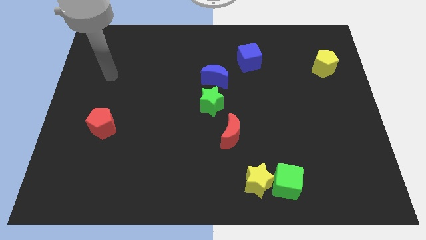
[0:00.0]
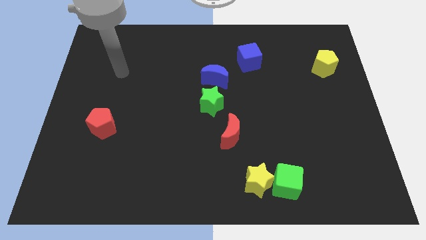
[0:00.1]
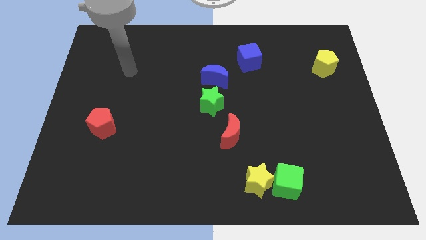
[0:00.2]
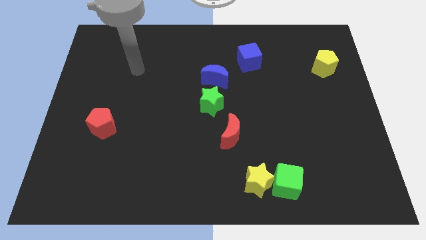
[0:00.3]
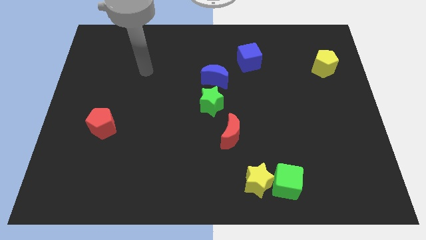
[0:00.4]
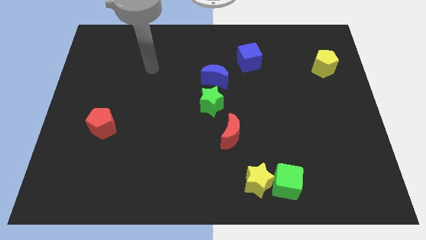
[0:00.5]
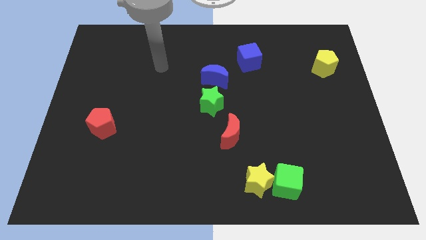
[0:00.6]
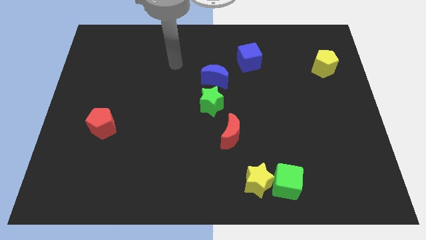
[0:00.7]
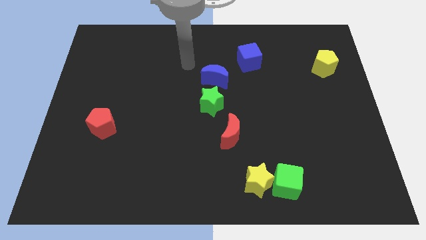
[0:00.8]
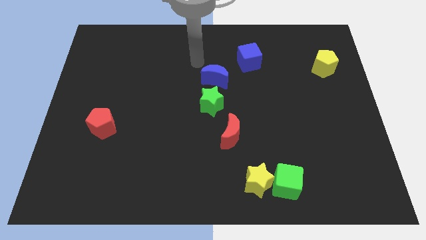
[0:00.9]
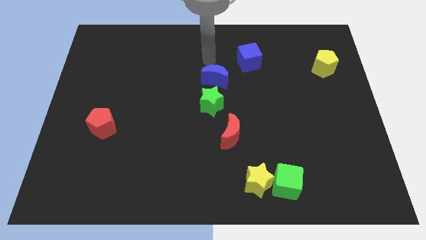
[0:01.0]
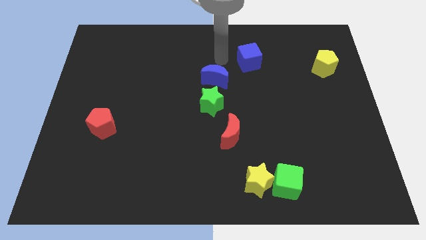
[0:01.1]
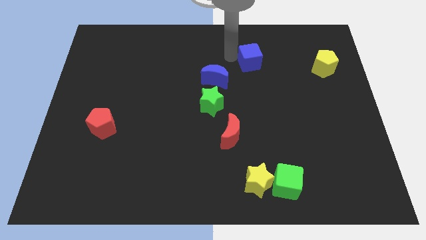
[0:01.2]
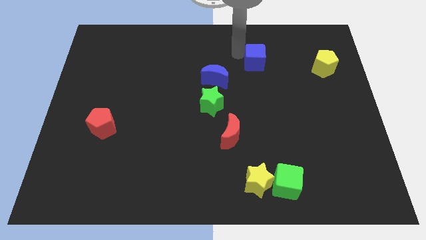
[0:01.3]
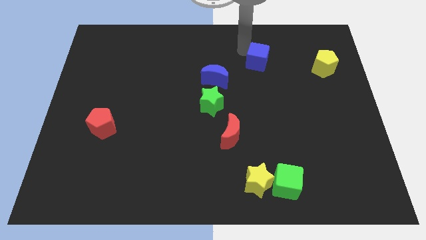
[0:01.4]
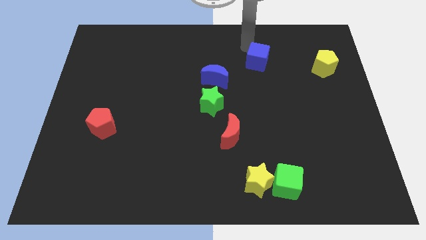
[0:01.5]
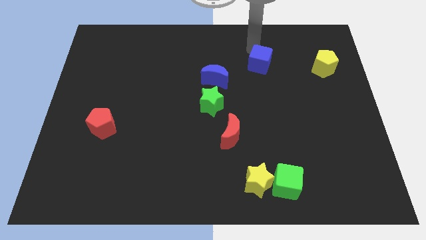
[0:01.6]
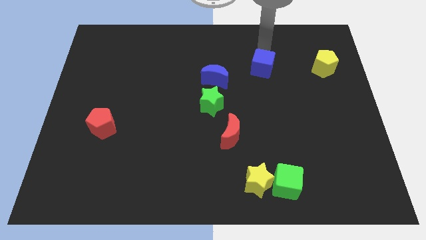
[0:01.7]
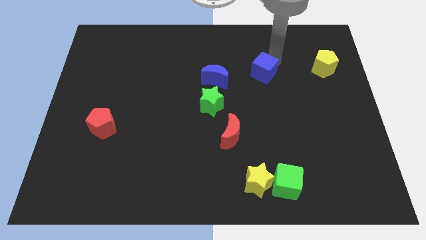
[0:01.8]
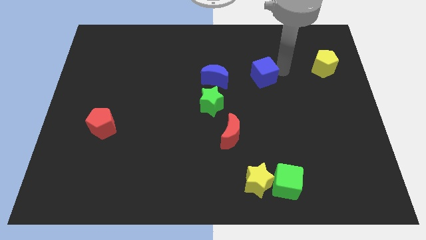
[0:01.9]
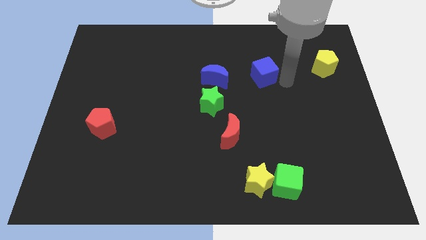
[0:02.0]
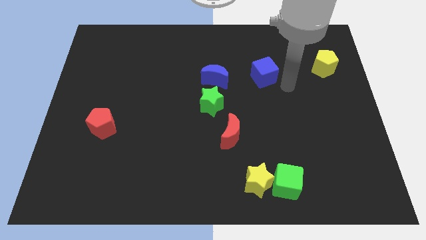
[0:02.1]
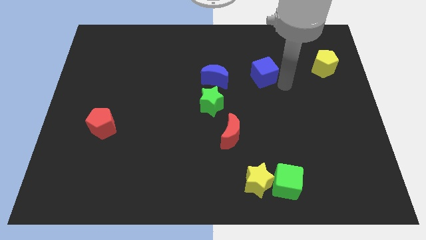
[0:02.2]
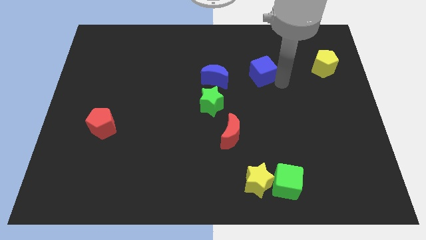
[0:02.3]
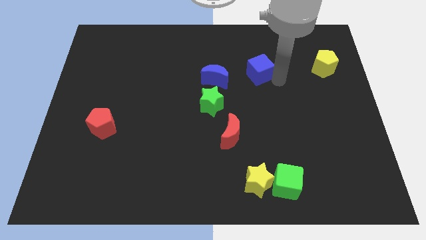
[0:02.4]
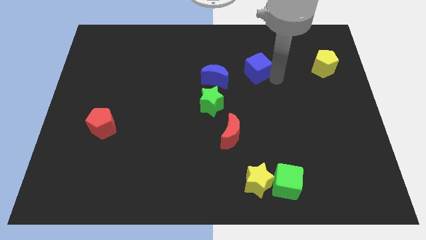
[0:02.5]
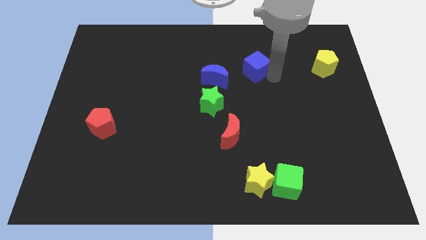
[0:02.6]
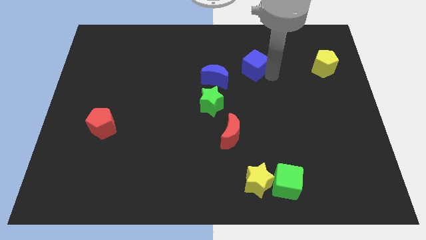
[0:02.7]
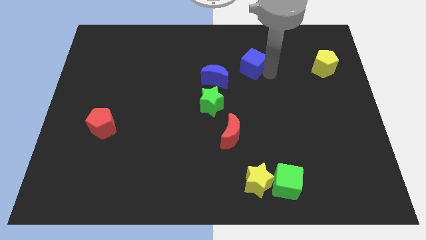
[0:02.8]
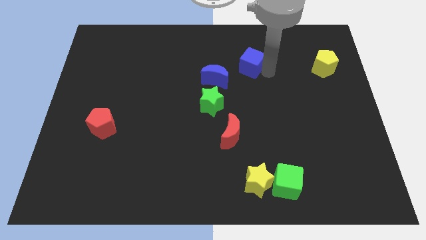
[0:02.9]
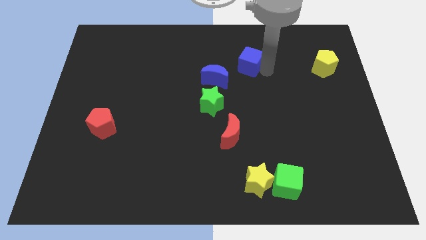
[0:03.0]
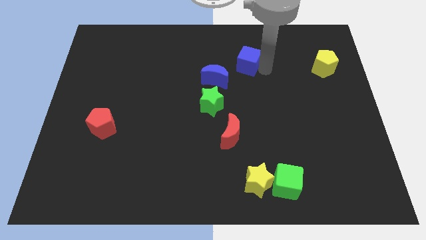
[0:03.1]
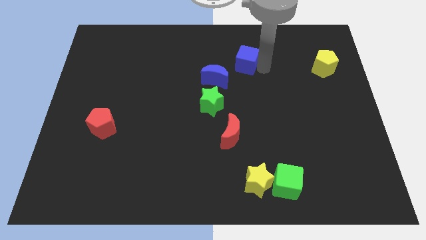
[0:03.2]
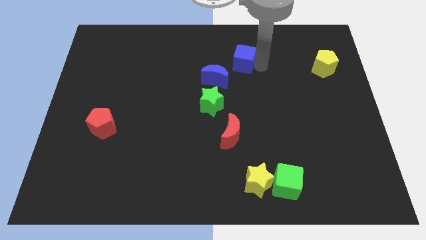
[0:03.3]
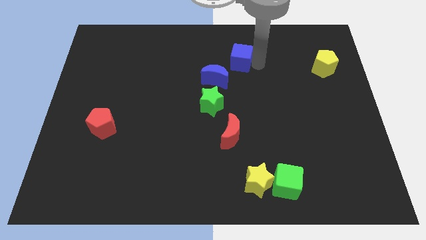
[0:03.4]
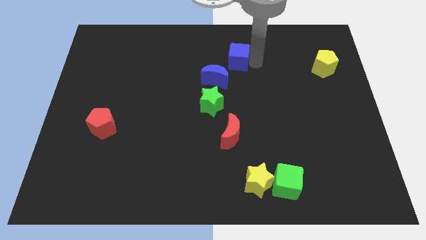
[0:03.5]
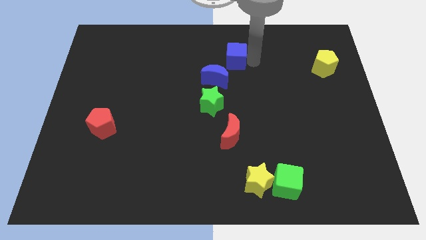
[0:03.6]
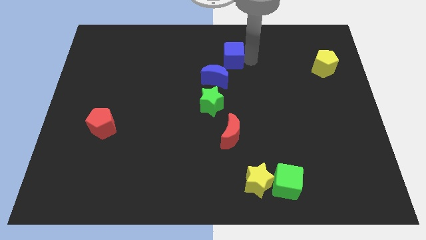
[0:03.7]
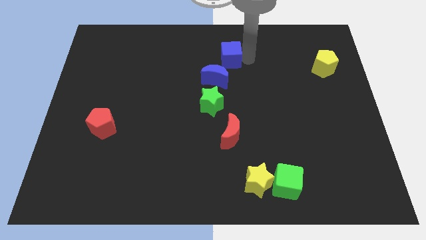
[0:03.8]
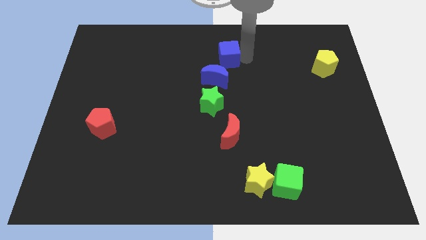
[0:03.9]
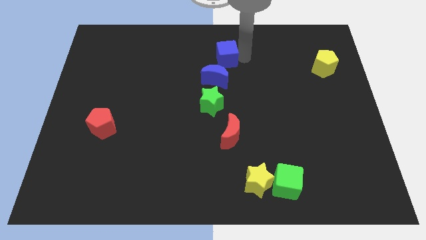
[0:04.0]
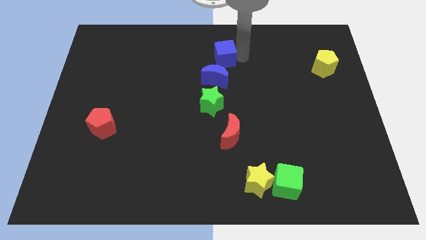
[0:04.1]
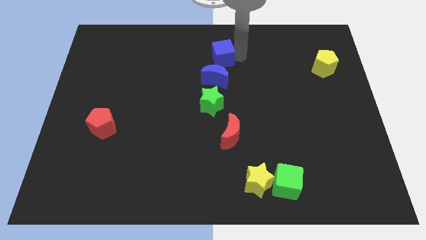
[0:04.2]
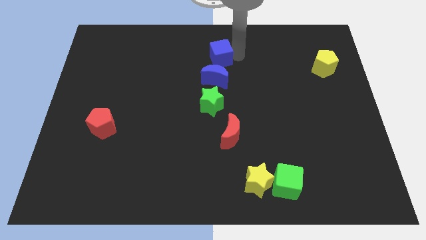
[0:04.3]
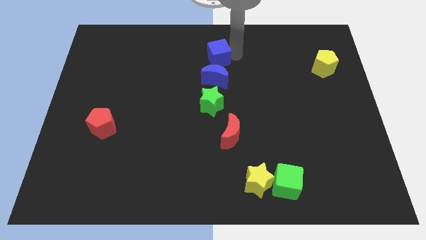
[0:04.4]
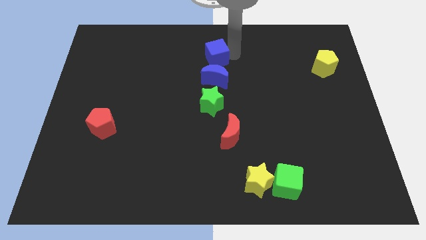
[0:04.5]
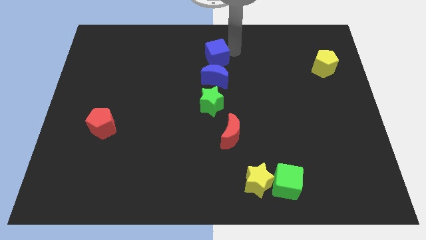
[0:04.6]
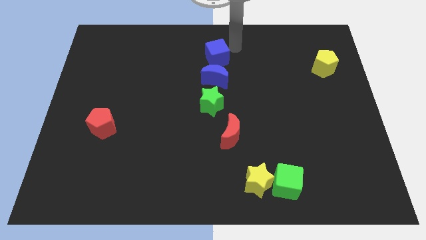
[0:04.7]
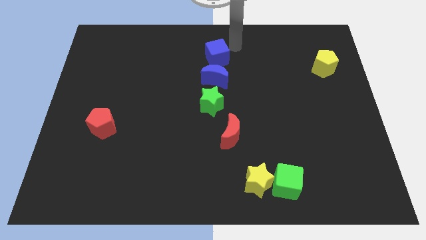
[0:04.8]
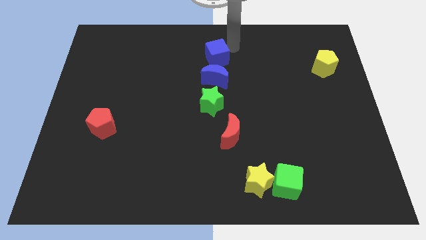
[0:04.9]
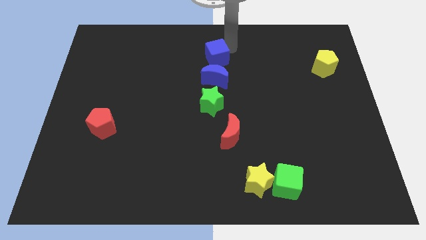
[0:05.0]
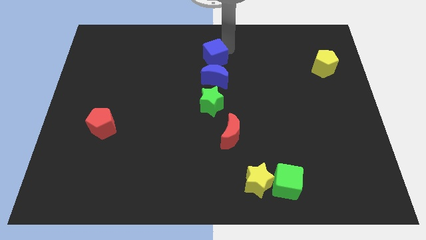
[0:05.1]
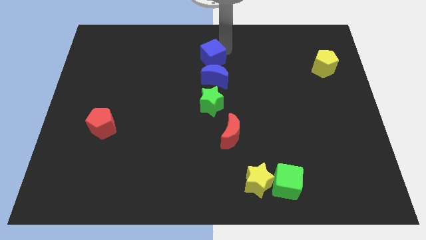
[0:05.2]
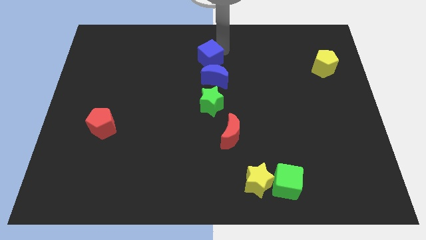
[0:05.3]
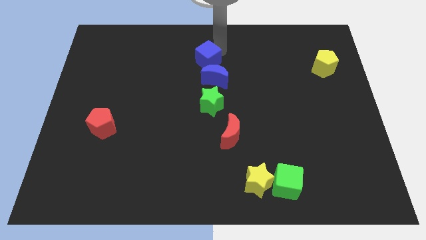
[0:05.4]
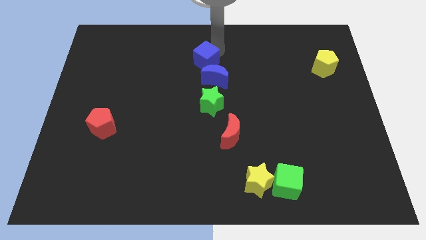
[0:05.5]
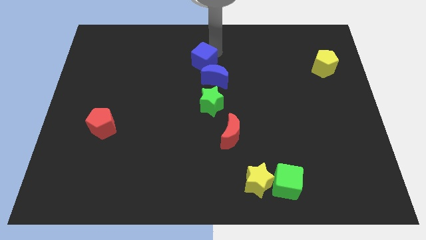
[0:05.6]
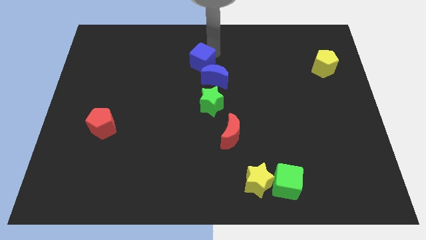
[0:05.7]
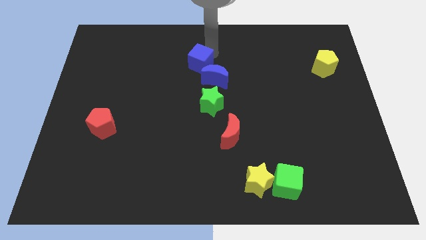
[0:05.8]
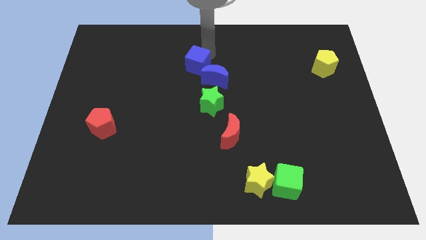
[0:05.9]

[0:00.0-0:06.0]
slightly slide the blue cube diagonally down and left

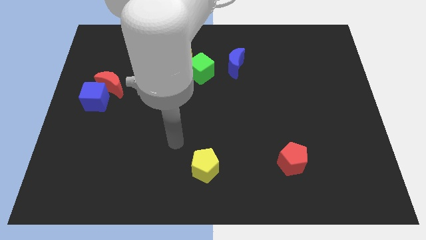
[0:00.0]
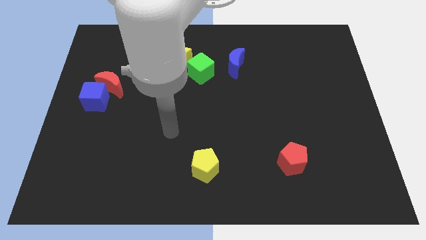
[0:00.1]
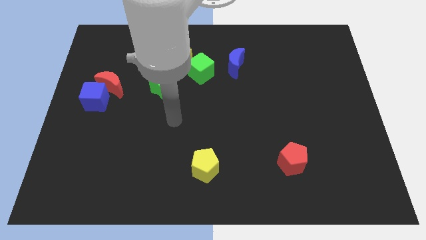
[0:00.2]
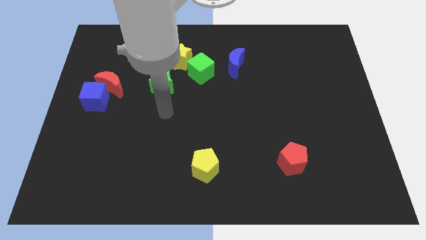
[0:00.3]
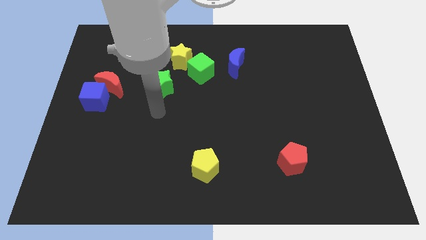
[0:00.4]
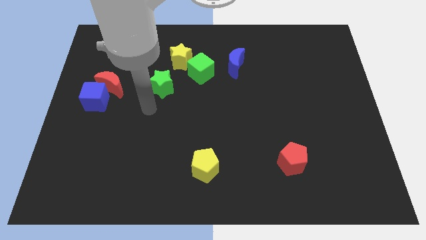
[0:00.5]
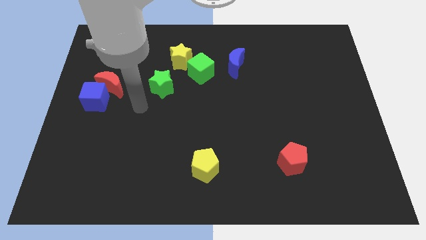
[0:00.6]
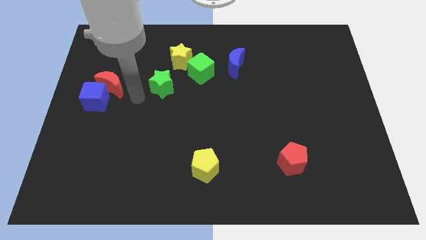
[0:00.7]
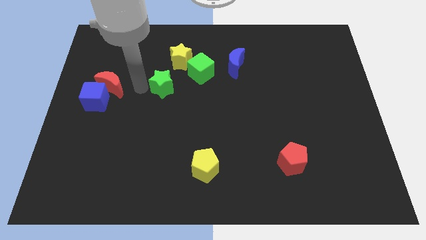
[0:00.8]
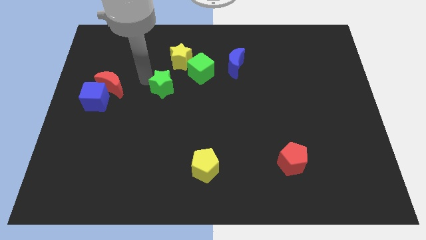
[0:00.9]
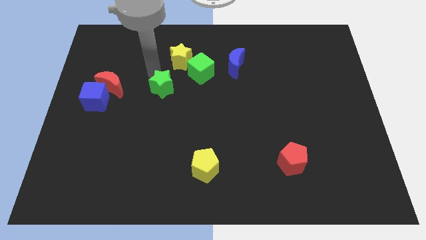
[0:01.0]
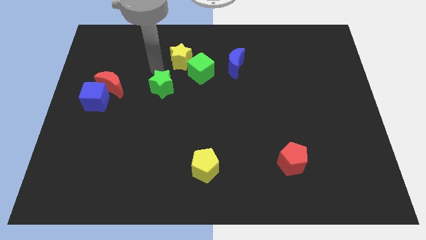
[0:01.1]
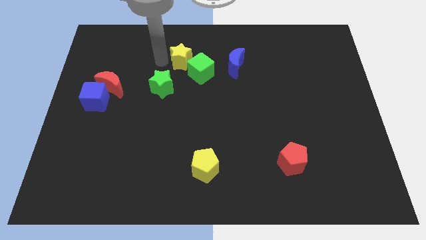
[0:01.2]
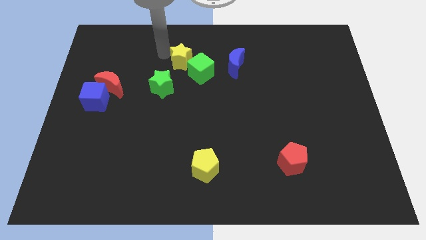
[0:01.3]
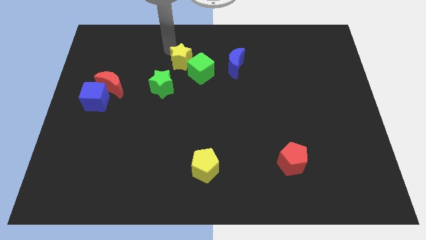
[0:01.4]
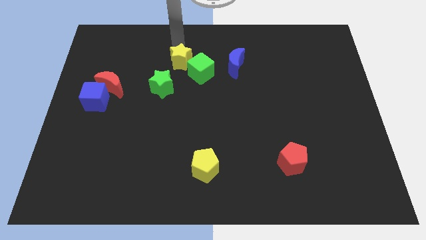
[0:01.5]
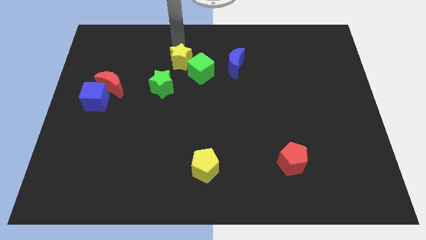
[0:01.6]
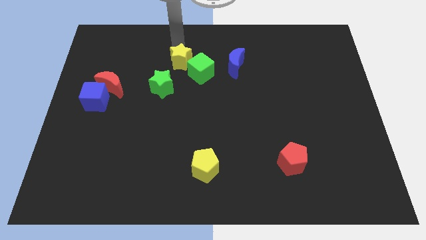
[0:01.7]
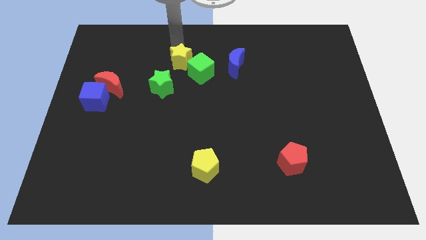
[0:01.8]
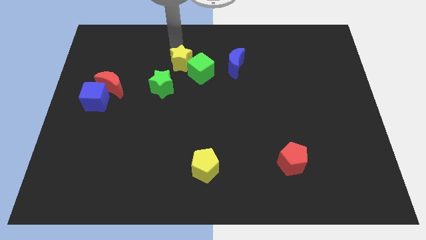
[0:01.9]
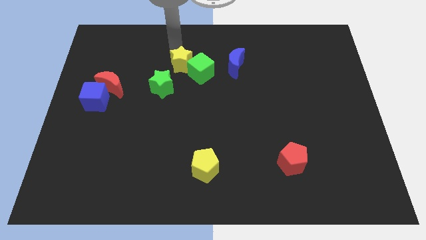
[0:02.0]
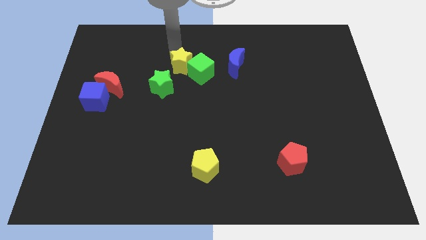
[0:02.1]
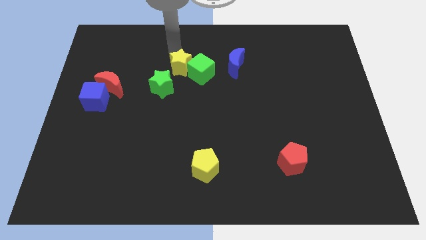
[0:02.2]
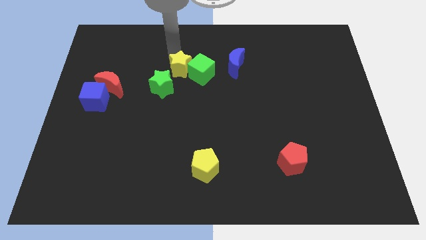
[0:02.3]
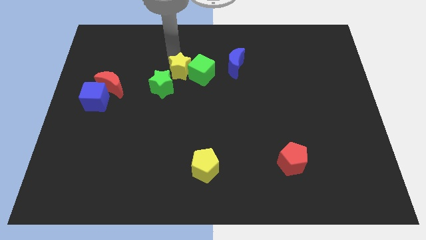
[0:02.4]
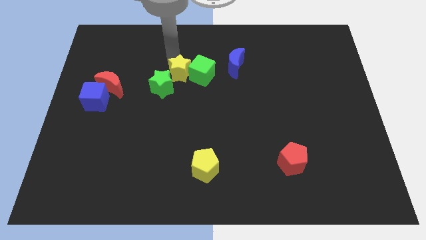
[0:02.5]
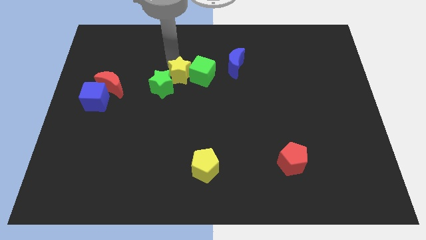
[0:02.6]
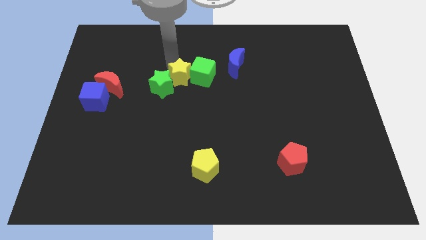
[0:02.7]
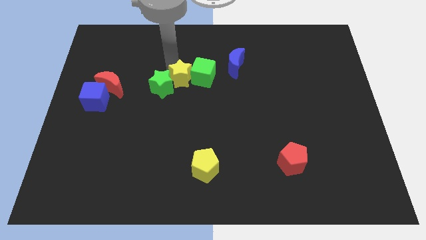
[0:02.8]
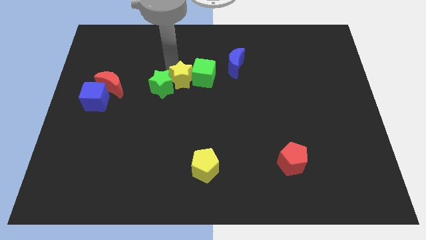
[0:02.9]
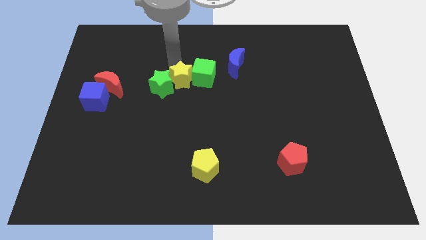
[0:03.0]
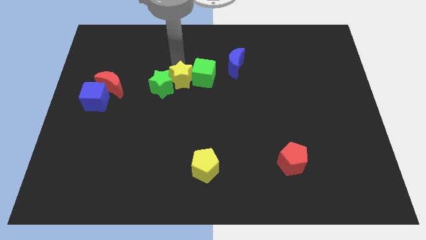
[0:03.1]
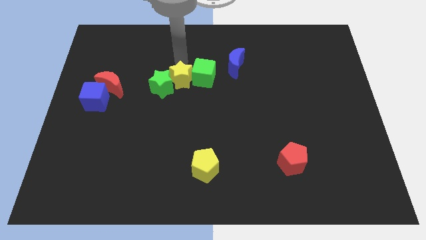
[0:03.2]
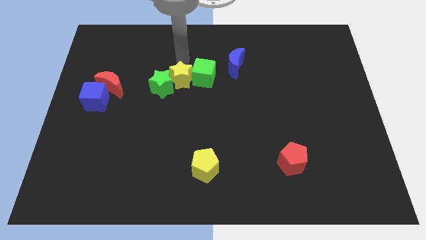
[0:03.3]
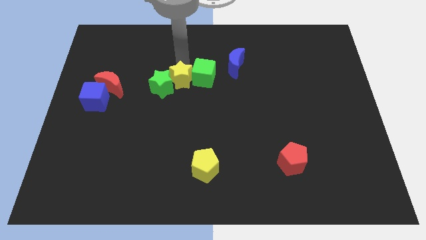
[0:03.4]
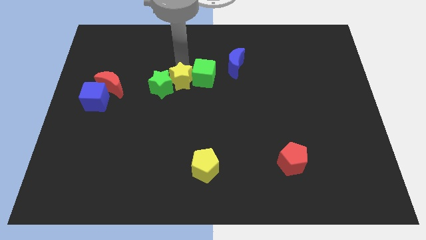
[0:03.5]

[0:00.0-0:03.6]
slide the yellow star a little bit downwards
